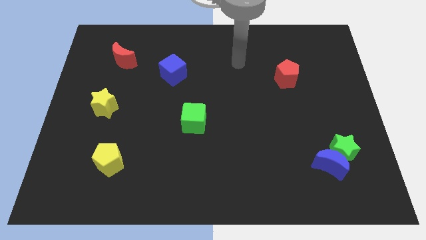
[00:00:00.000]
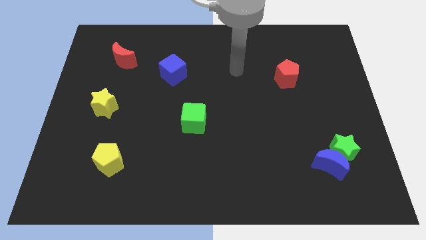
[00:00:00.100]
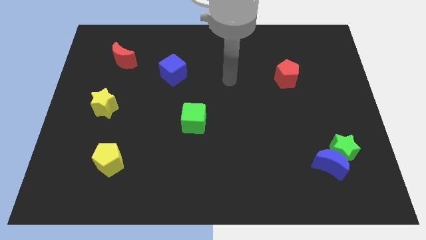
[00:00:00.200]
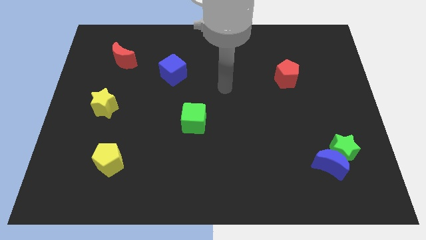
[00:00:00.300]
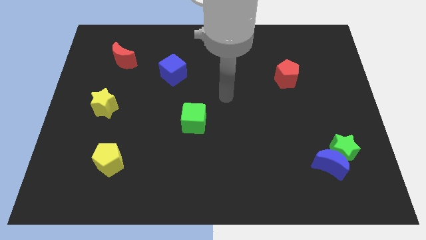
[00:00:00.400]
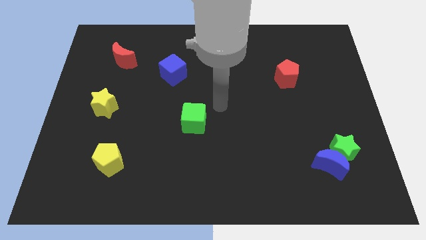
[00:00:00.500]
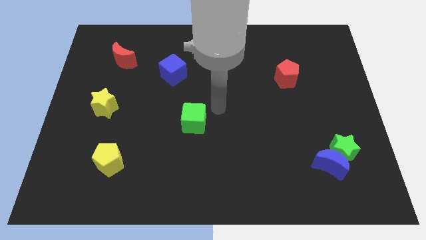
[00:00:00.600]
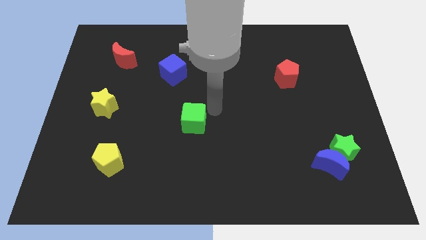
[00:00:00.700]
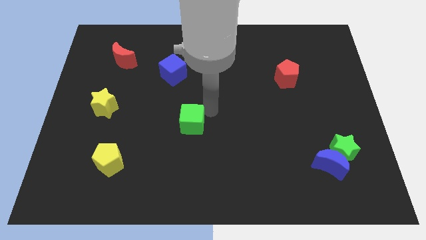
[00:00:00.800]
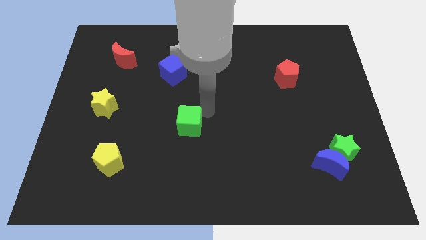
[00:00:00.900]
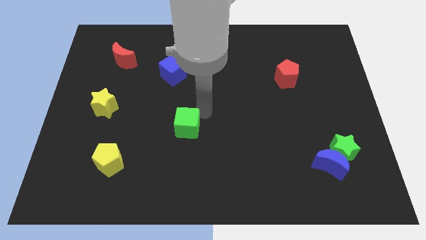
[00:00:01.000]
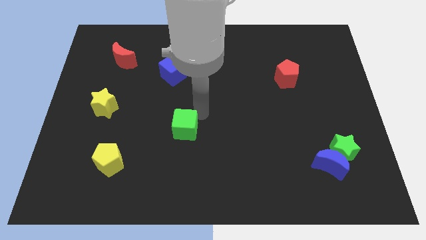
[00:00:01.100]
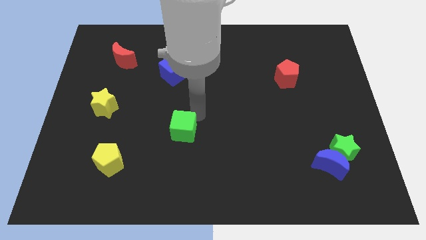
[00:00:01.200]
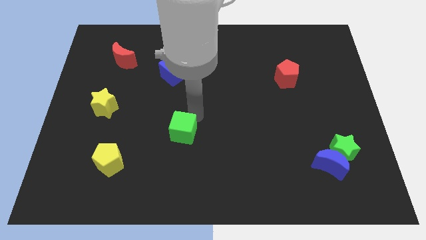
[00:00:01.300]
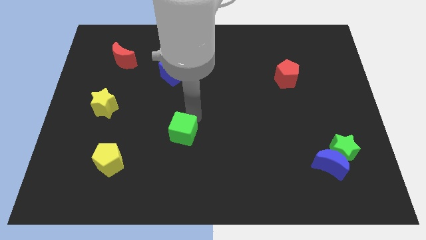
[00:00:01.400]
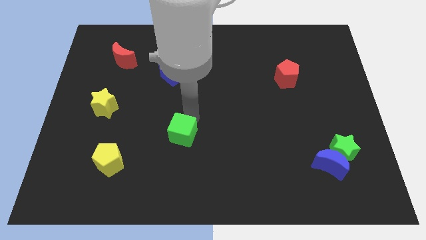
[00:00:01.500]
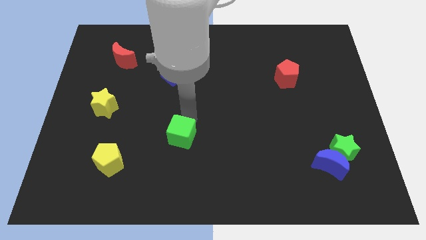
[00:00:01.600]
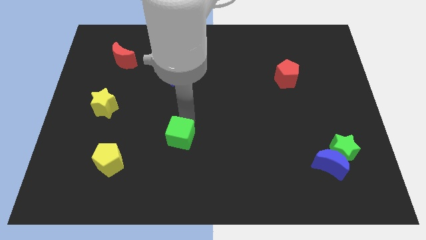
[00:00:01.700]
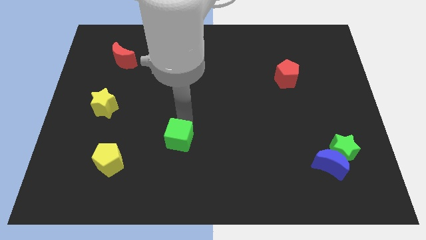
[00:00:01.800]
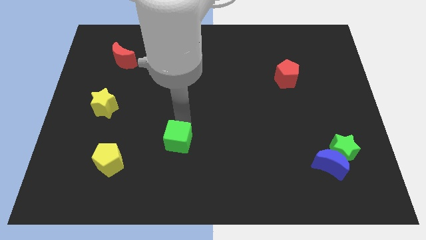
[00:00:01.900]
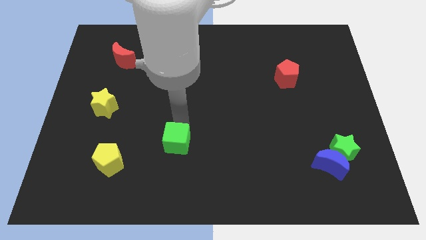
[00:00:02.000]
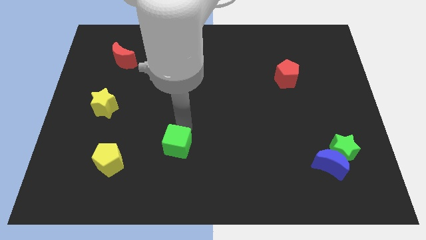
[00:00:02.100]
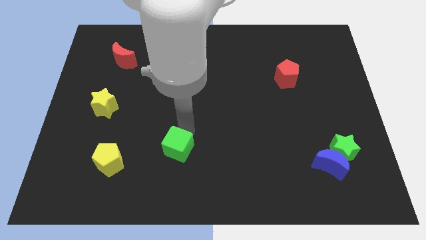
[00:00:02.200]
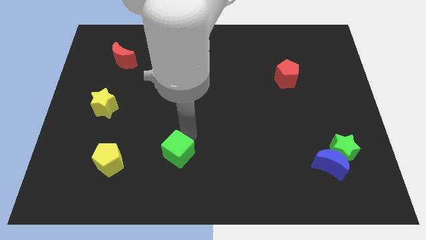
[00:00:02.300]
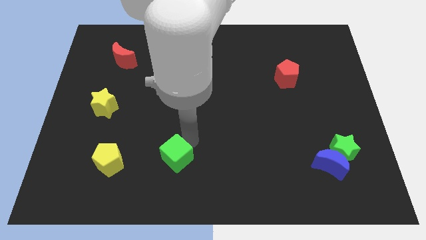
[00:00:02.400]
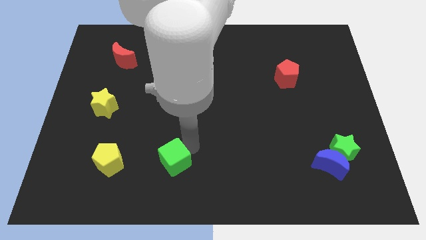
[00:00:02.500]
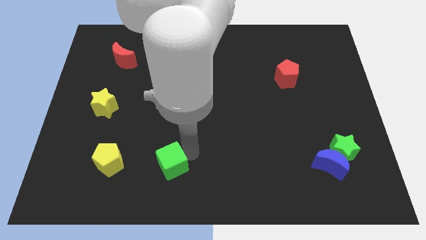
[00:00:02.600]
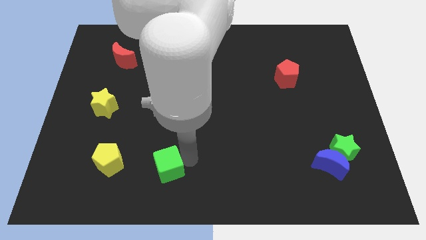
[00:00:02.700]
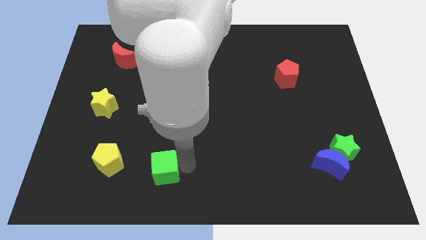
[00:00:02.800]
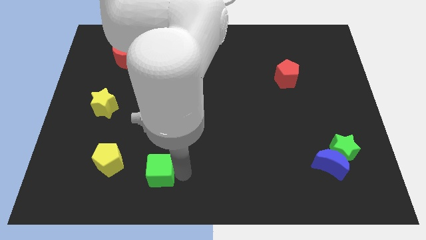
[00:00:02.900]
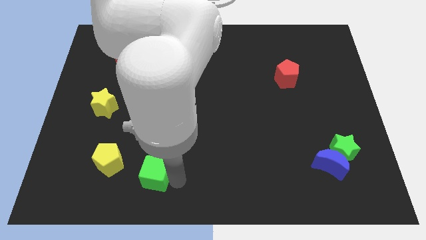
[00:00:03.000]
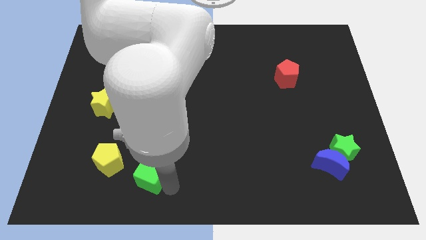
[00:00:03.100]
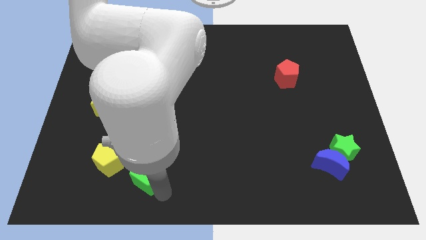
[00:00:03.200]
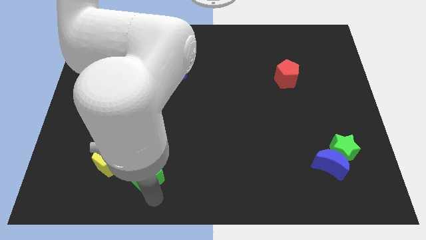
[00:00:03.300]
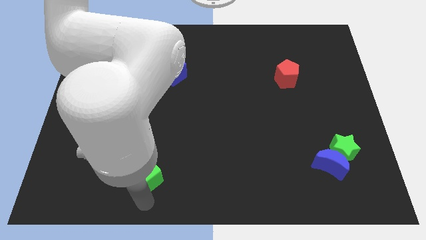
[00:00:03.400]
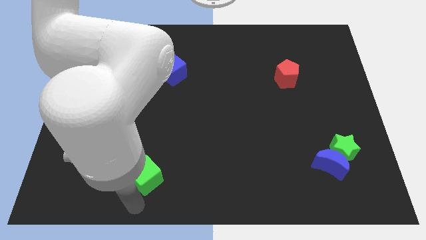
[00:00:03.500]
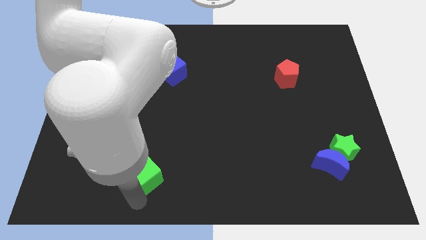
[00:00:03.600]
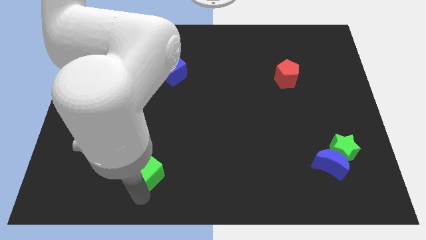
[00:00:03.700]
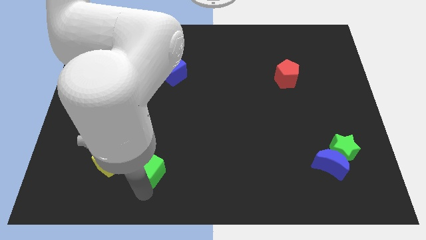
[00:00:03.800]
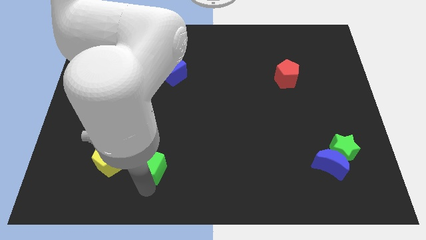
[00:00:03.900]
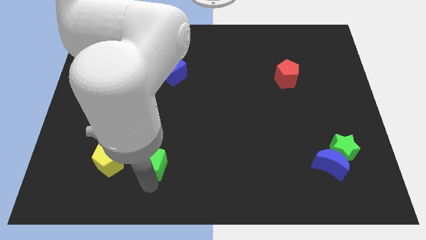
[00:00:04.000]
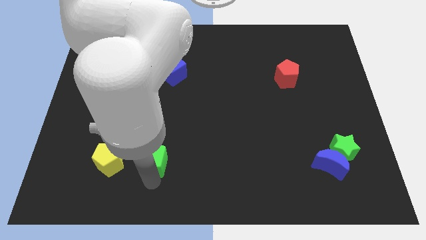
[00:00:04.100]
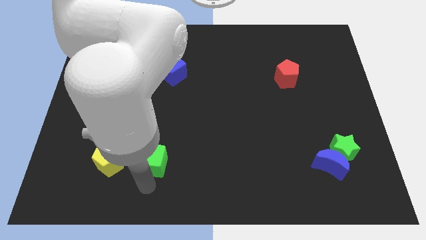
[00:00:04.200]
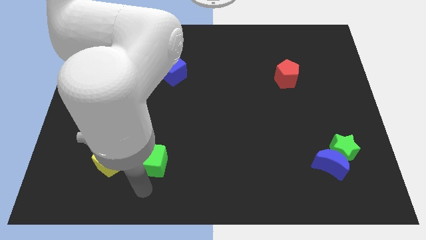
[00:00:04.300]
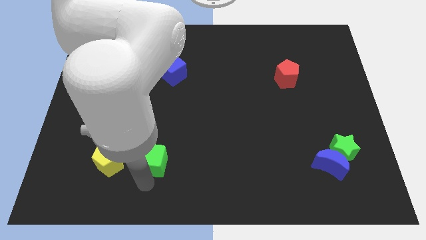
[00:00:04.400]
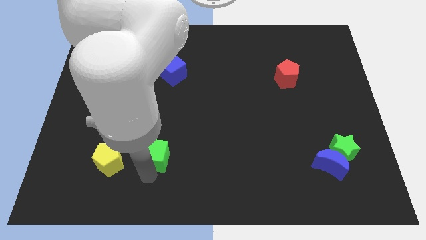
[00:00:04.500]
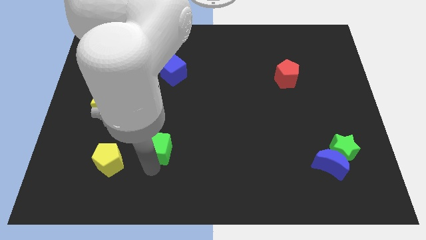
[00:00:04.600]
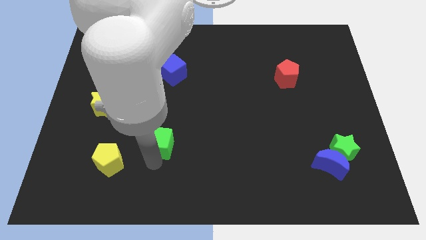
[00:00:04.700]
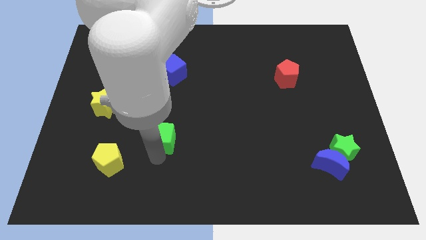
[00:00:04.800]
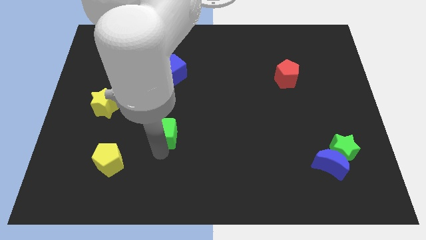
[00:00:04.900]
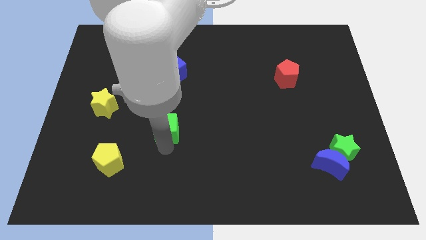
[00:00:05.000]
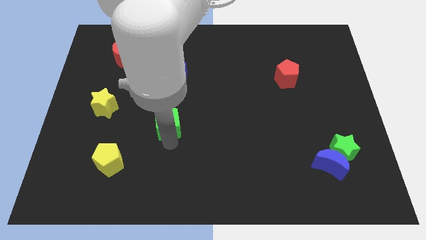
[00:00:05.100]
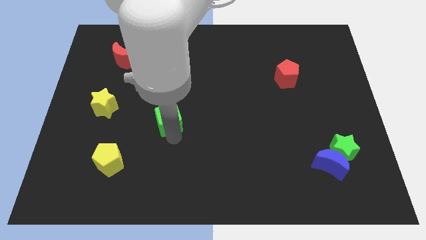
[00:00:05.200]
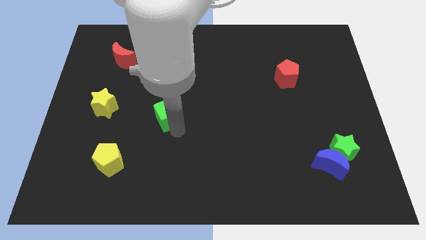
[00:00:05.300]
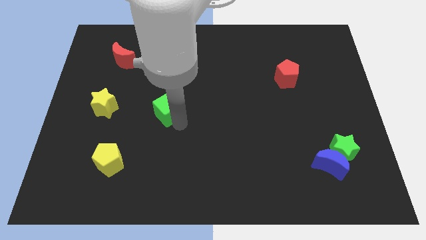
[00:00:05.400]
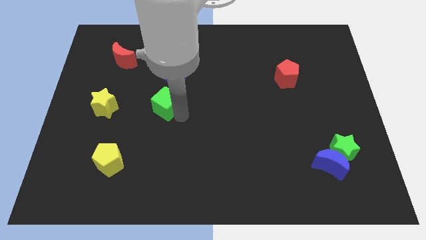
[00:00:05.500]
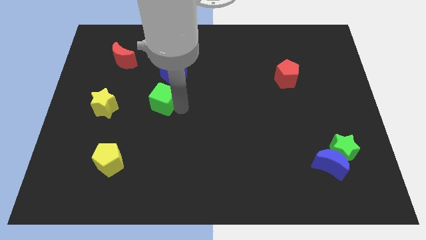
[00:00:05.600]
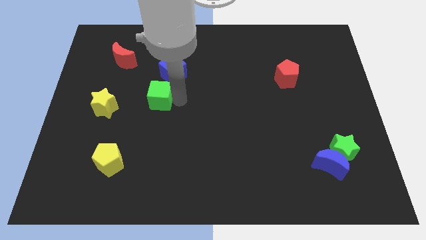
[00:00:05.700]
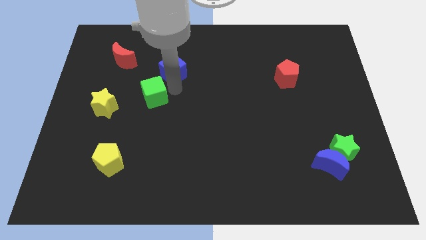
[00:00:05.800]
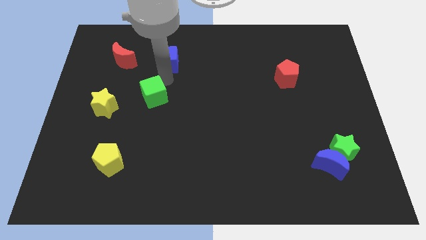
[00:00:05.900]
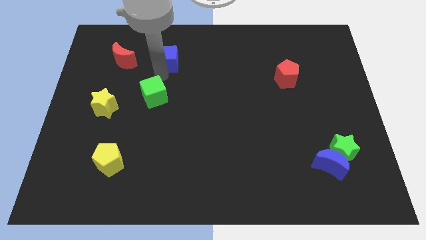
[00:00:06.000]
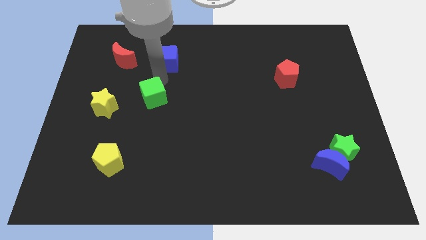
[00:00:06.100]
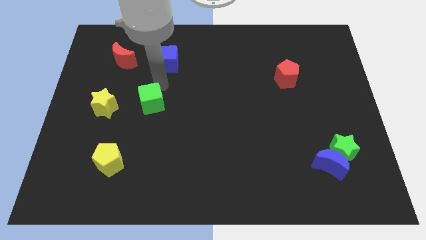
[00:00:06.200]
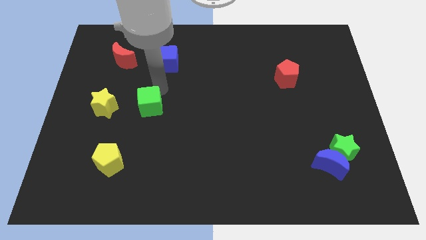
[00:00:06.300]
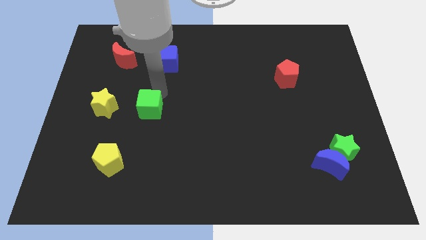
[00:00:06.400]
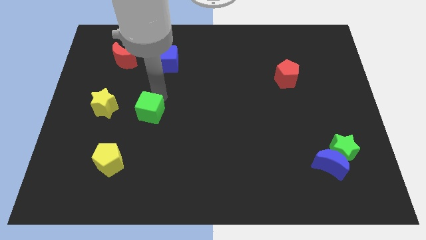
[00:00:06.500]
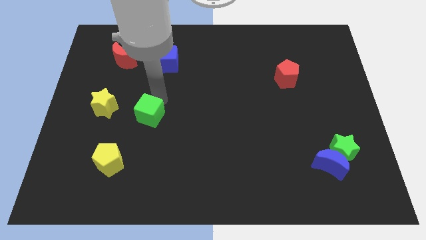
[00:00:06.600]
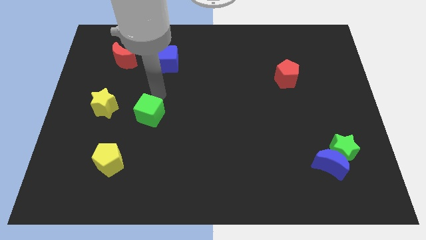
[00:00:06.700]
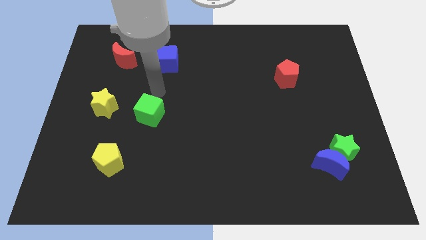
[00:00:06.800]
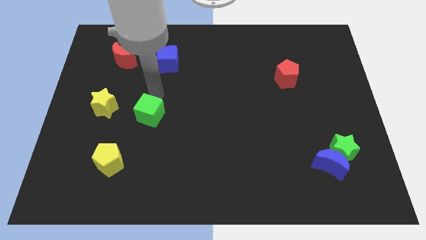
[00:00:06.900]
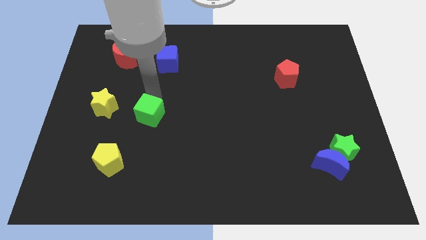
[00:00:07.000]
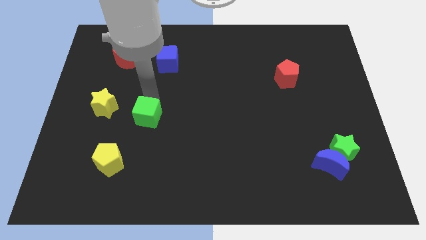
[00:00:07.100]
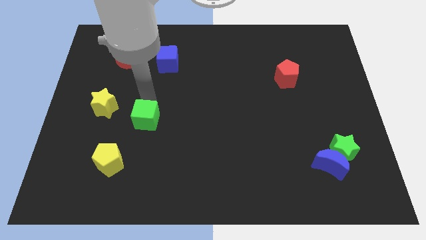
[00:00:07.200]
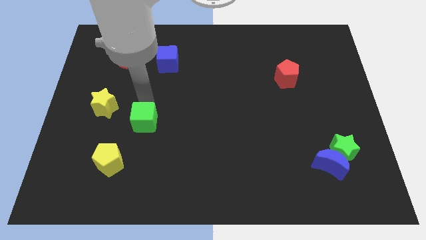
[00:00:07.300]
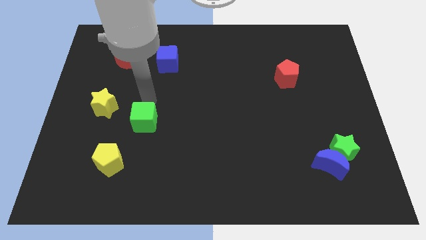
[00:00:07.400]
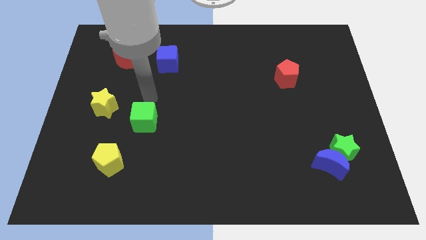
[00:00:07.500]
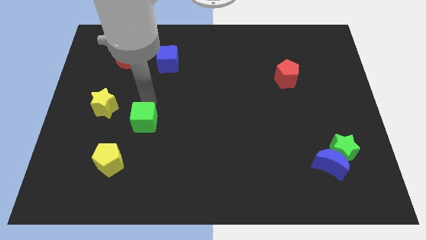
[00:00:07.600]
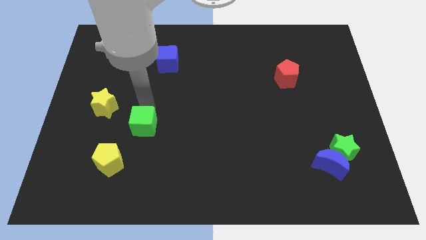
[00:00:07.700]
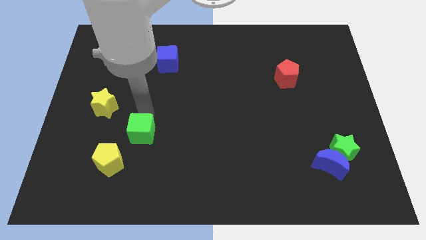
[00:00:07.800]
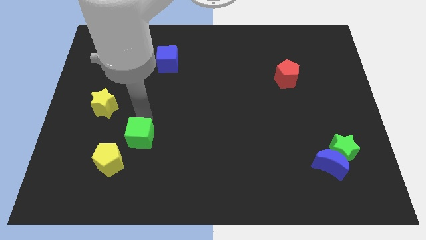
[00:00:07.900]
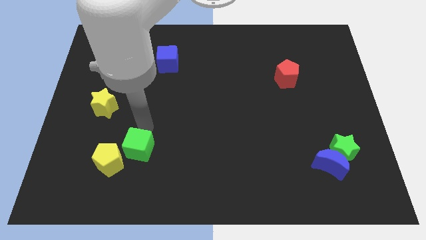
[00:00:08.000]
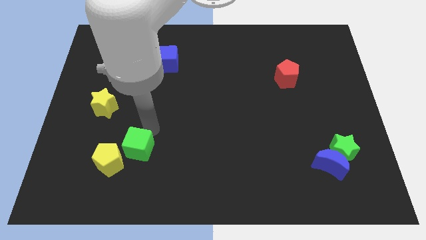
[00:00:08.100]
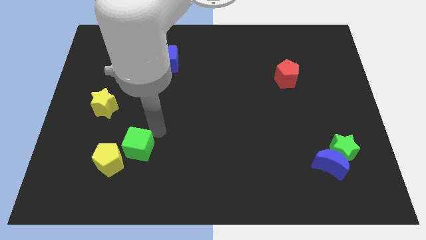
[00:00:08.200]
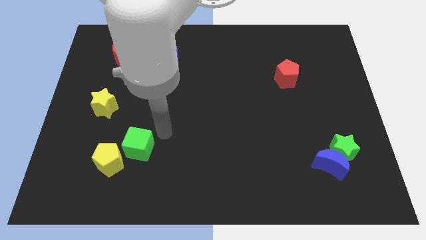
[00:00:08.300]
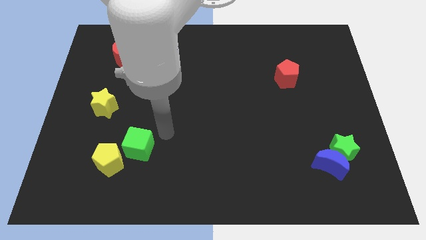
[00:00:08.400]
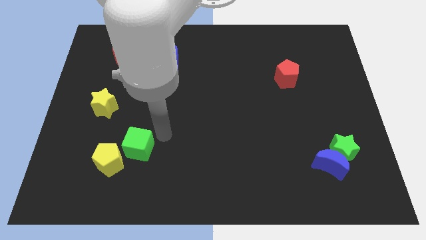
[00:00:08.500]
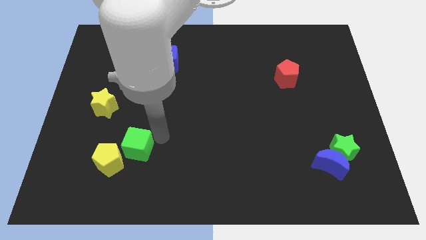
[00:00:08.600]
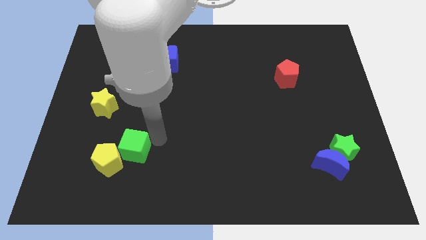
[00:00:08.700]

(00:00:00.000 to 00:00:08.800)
push the green cube to the yellow pentagon
